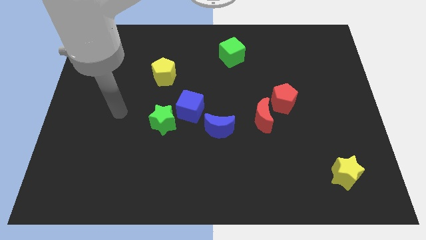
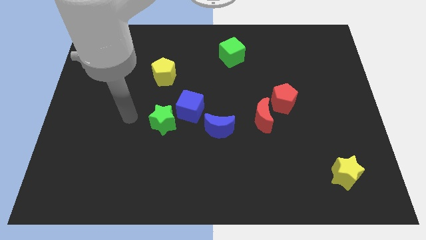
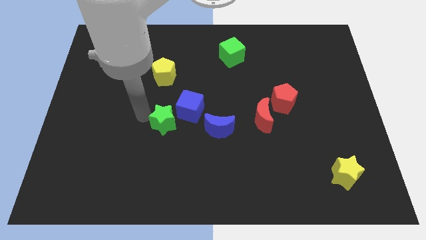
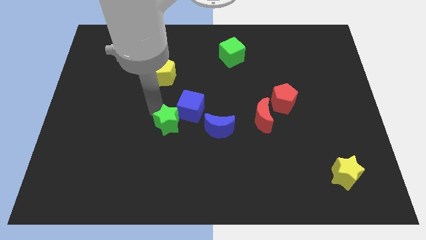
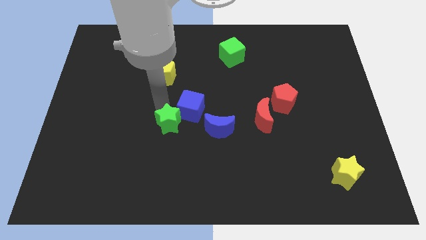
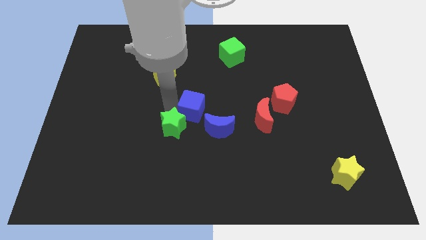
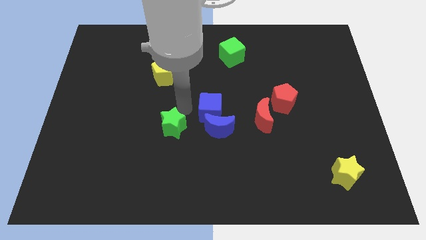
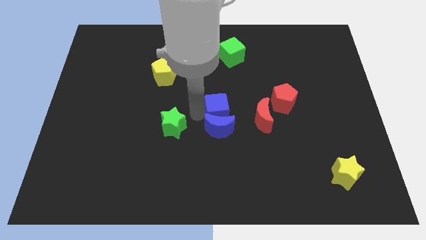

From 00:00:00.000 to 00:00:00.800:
move the green star away from the blue cube

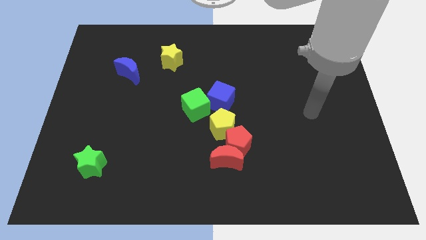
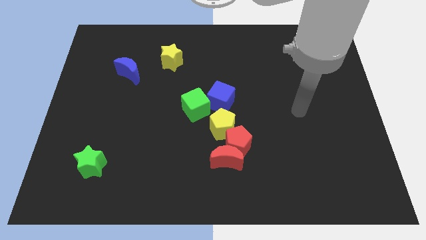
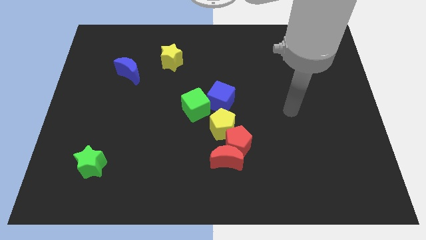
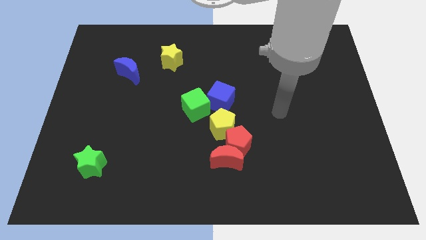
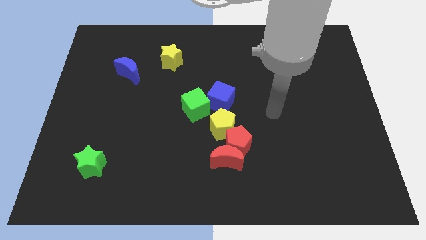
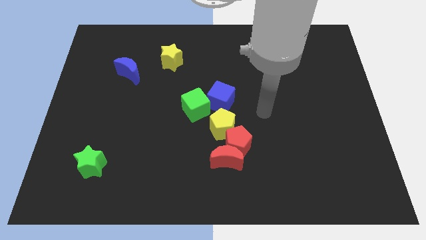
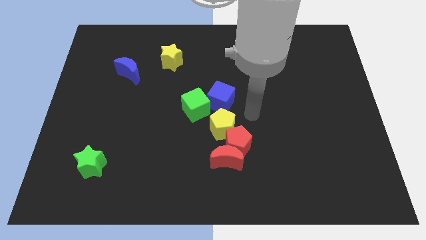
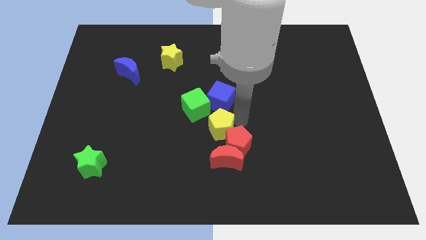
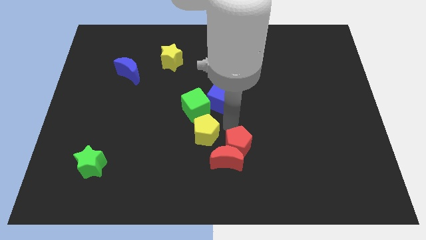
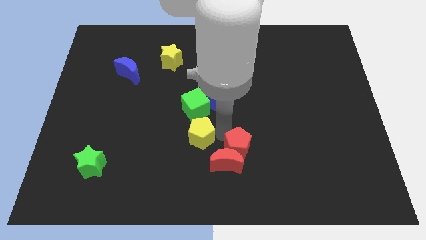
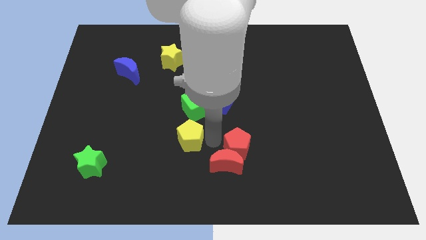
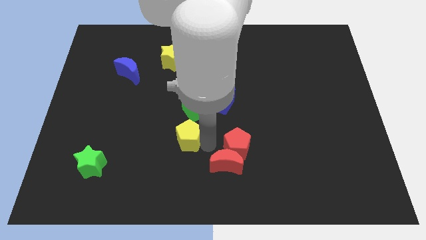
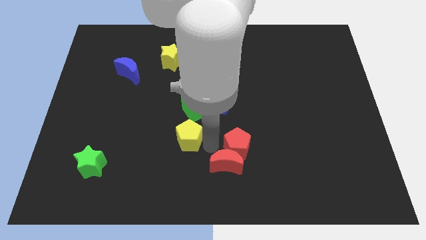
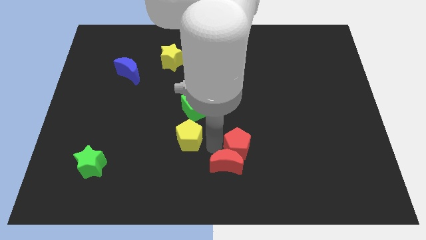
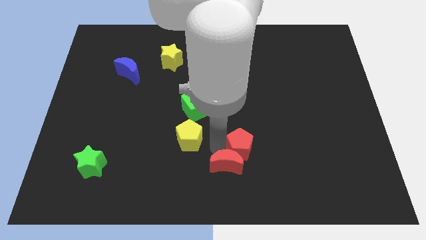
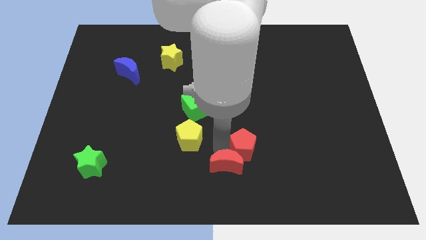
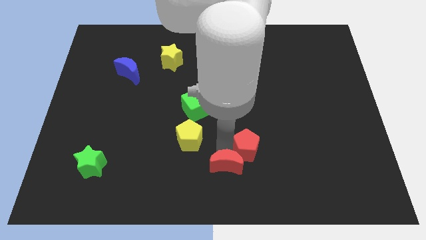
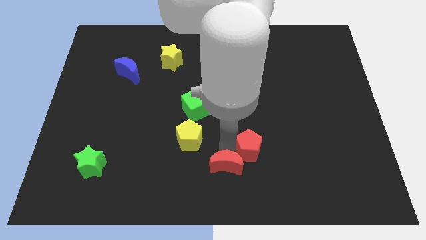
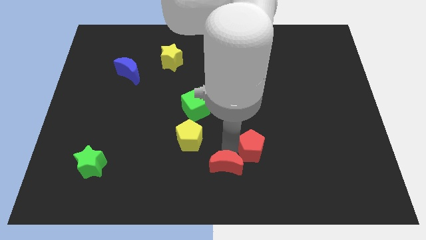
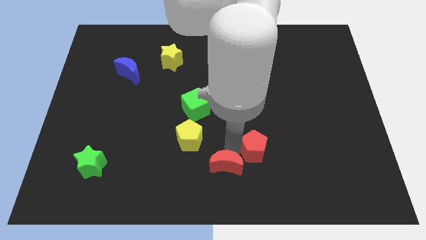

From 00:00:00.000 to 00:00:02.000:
separate the red pentagon from the red moon and yellow pentagon

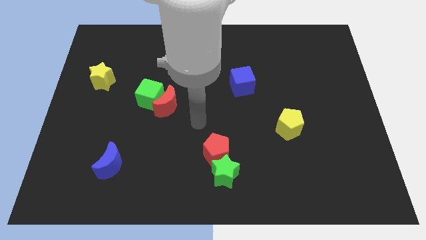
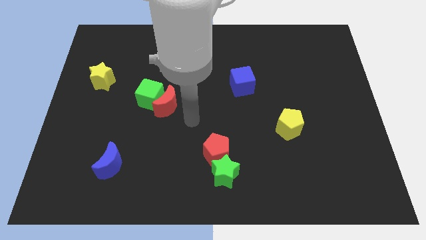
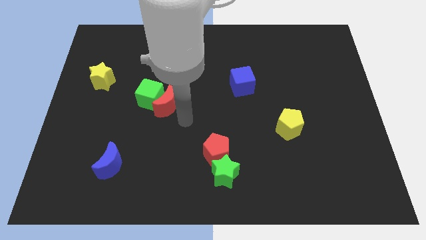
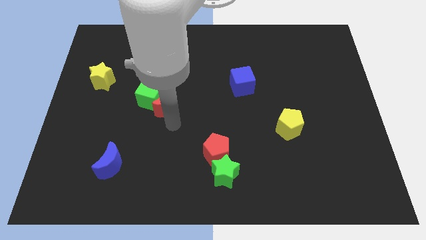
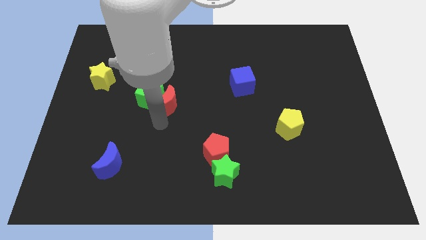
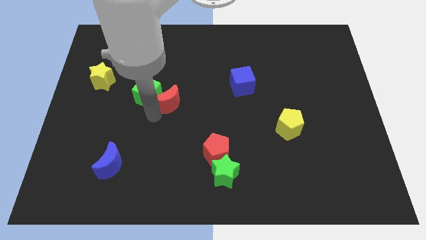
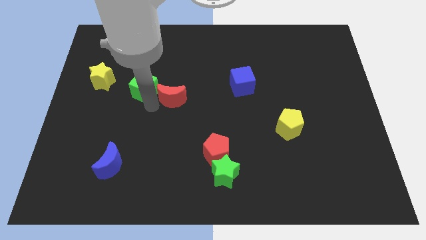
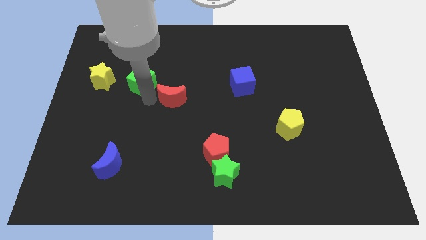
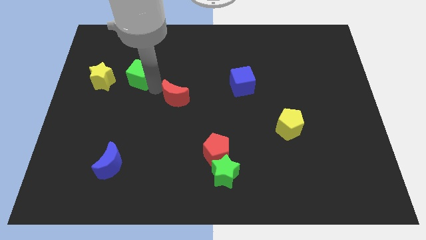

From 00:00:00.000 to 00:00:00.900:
separate the red moon from the green cube

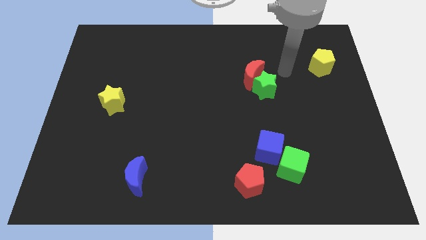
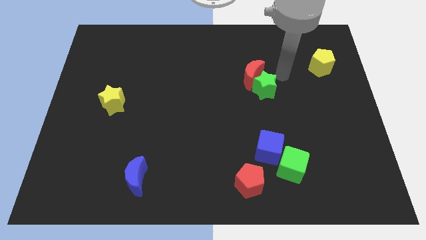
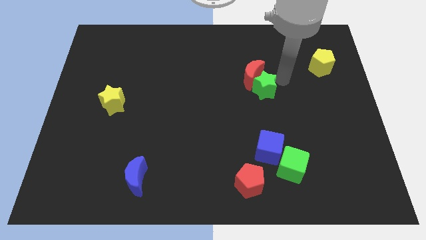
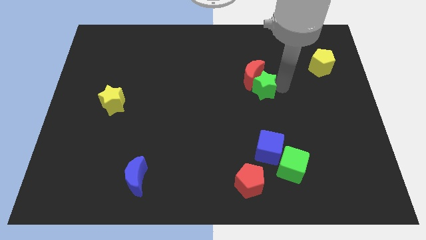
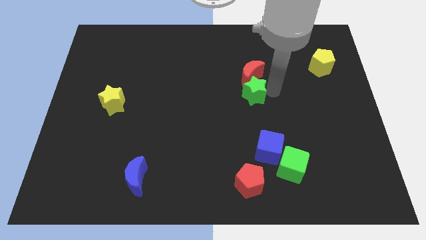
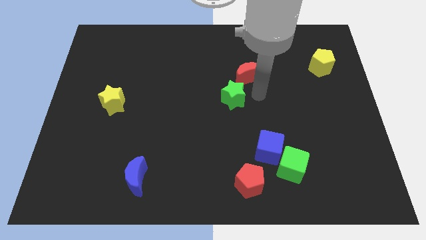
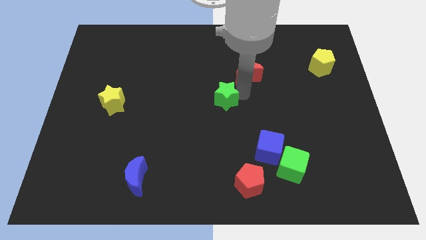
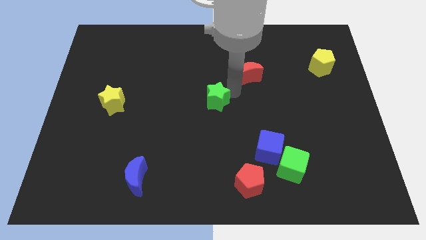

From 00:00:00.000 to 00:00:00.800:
pull the red moon apart from the green star

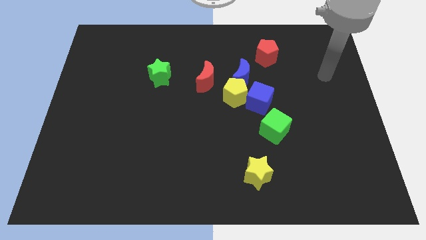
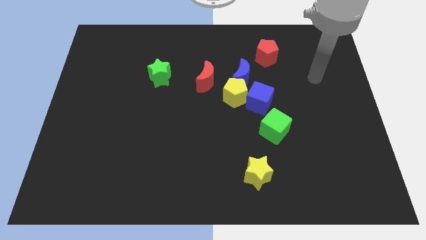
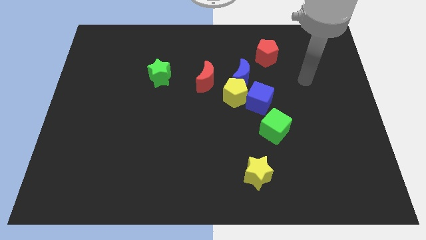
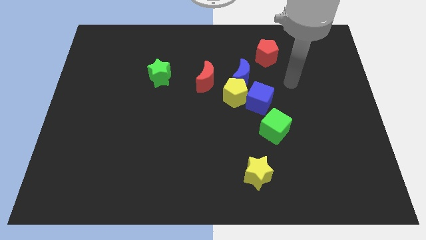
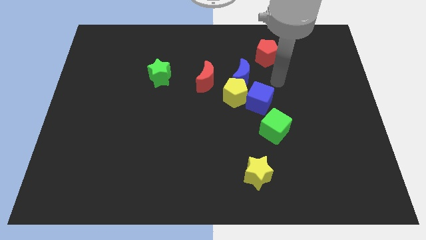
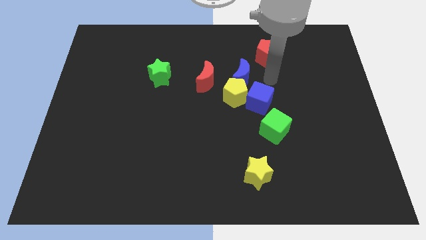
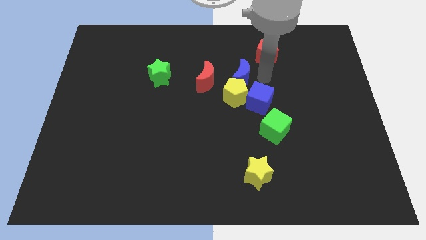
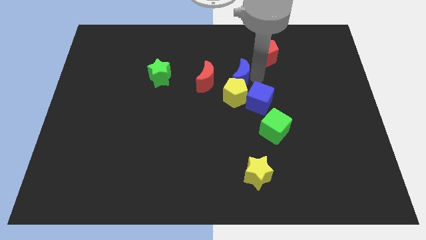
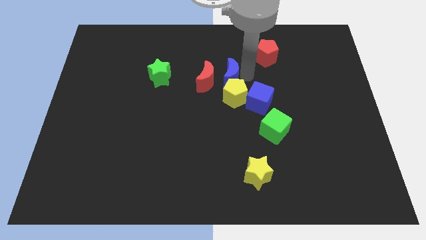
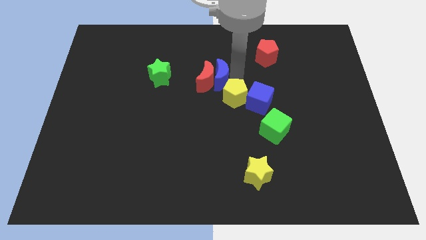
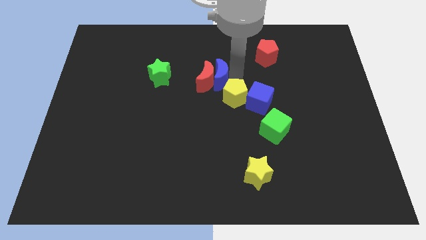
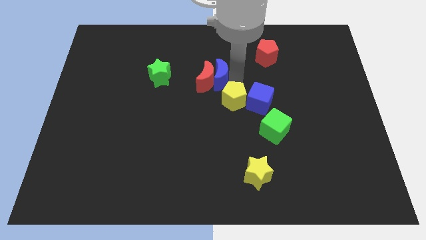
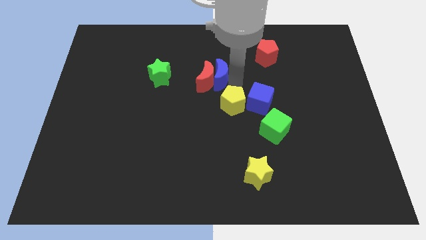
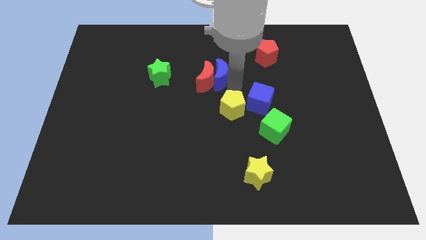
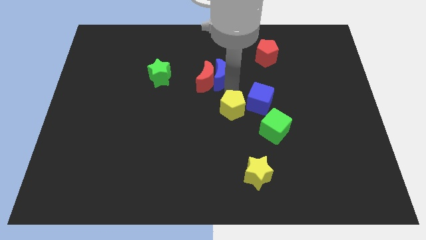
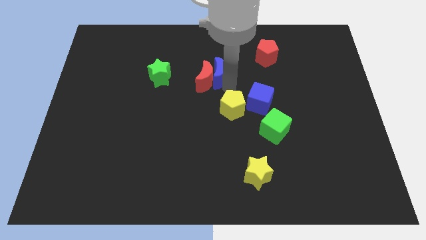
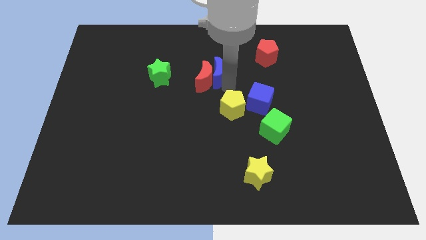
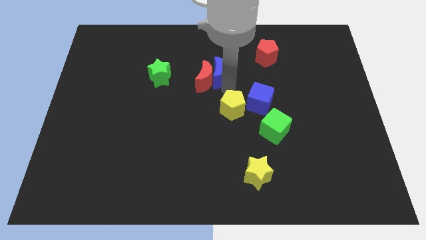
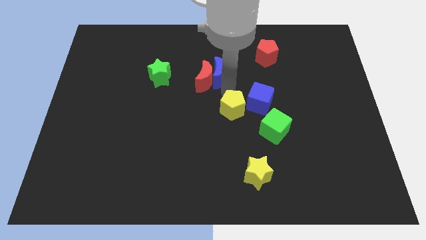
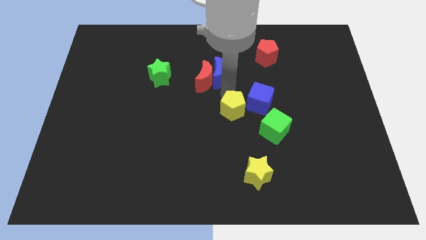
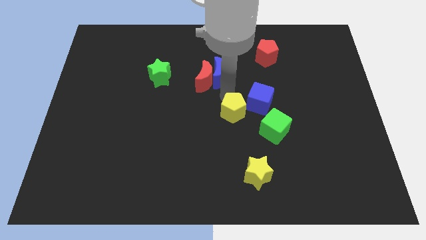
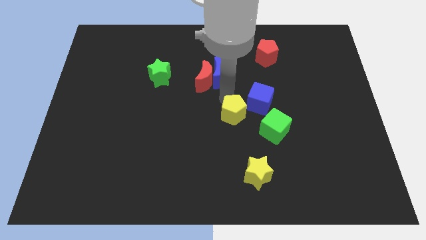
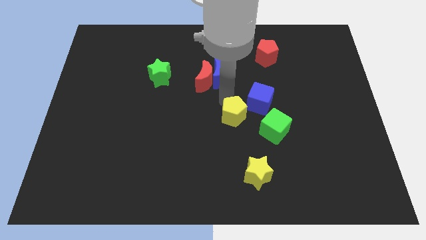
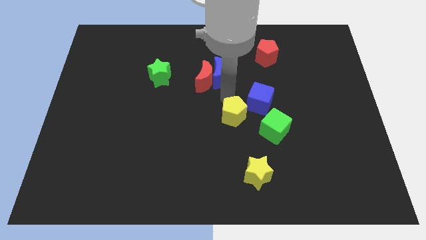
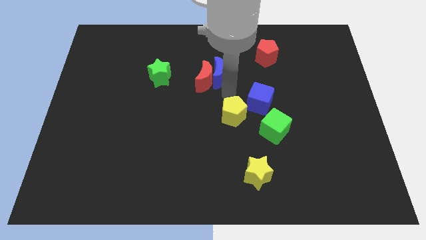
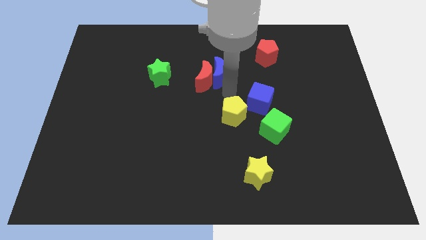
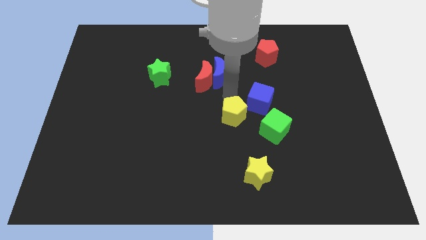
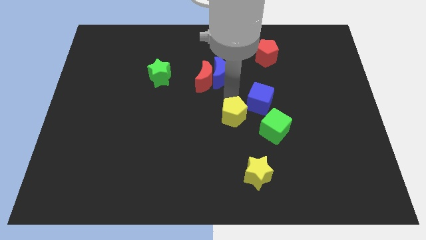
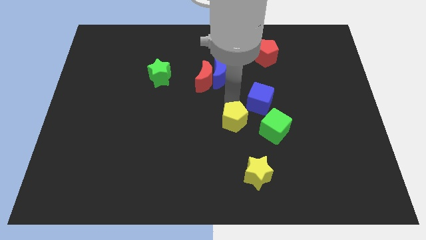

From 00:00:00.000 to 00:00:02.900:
pull the yellow pentagon apart from the group of blocks

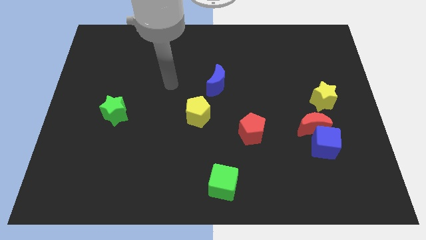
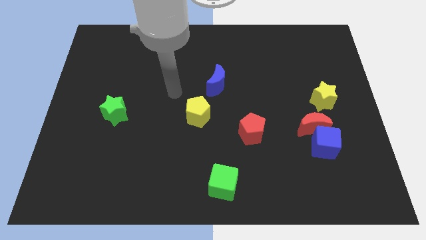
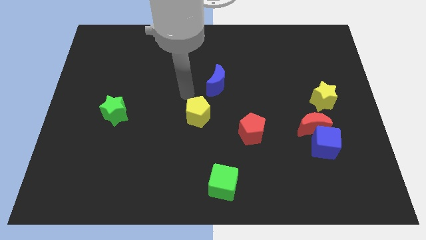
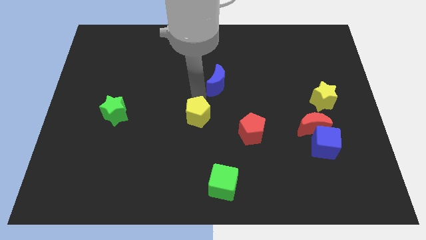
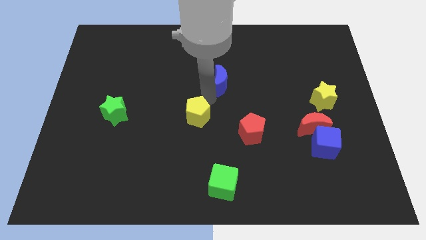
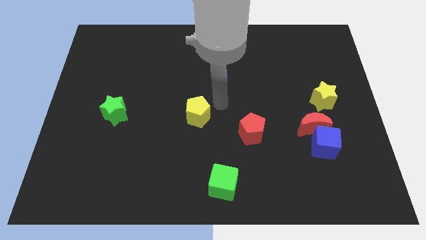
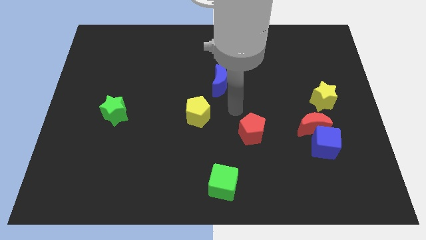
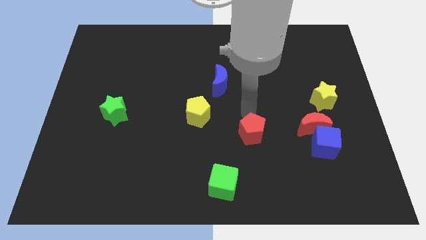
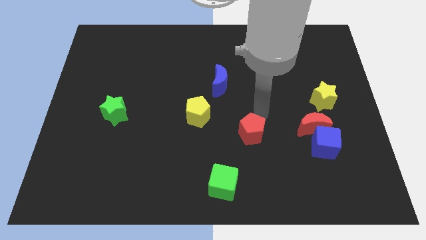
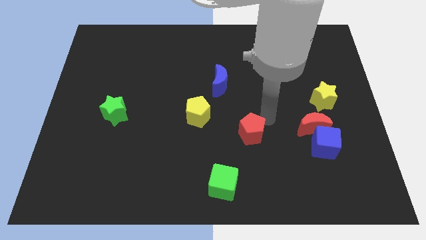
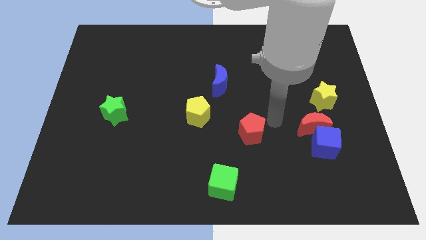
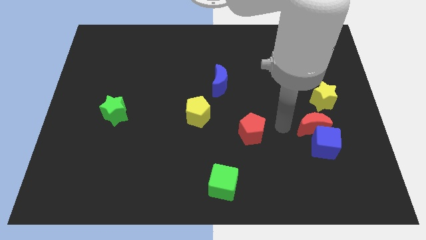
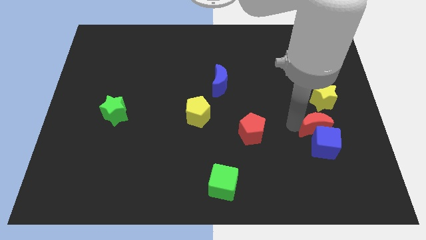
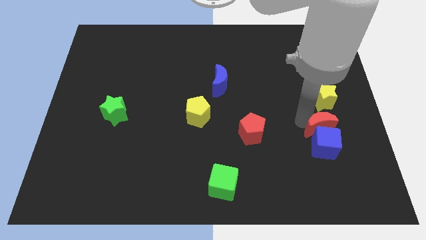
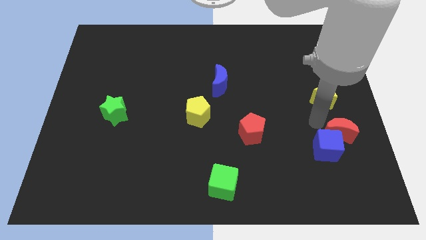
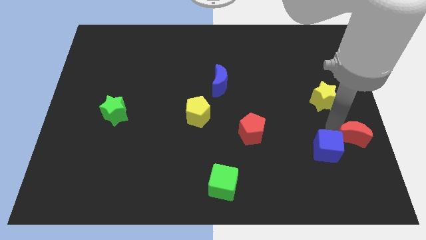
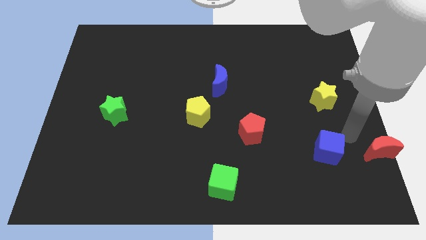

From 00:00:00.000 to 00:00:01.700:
pull the blue cube apart from the red moon
